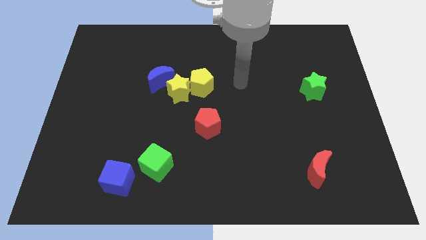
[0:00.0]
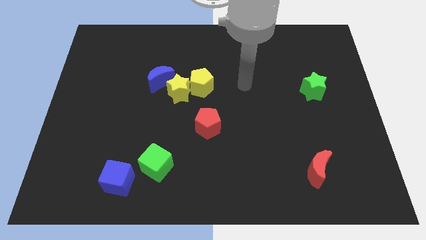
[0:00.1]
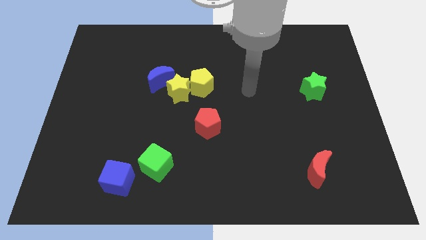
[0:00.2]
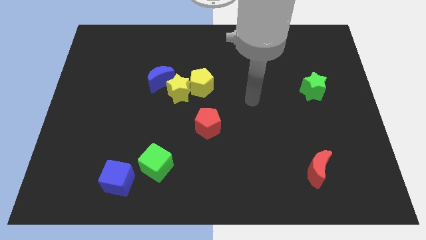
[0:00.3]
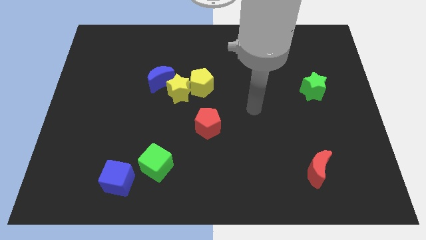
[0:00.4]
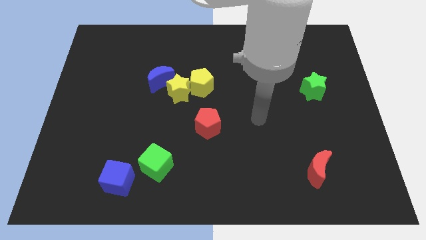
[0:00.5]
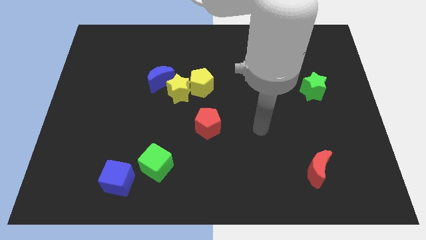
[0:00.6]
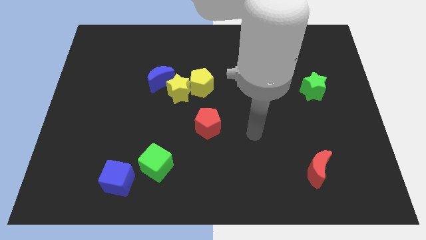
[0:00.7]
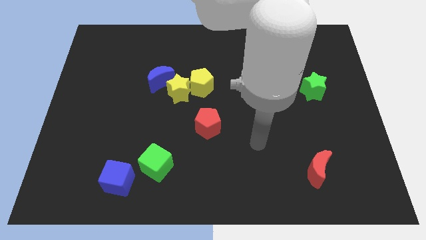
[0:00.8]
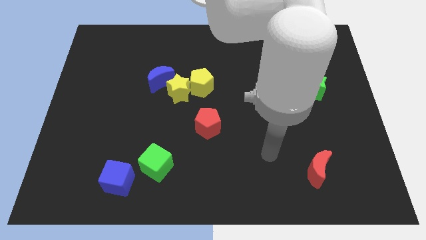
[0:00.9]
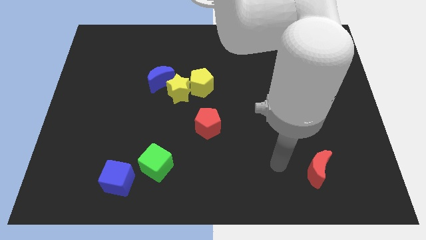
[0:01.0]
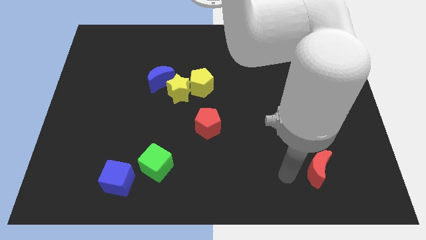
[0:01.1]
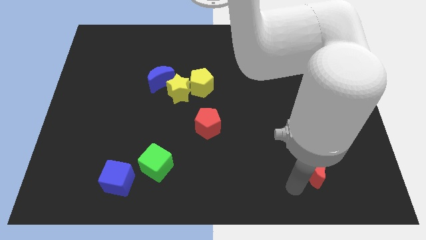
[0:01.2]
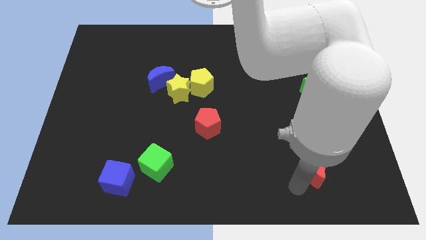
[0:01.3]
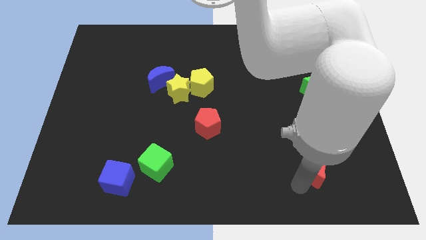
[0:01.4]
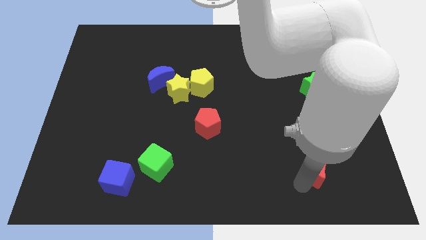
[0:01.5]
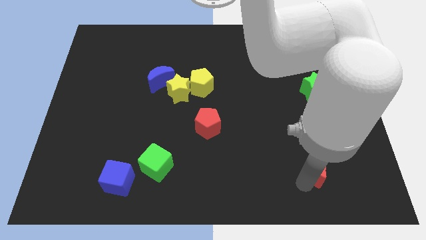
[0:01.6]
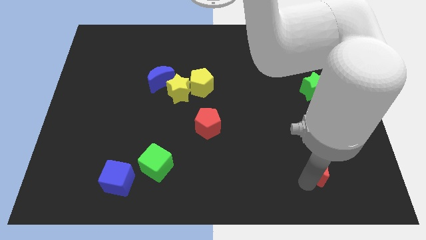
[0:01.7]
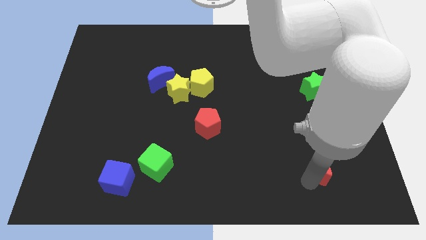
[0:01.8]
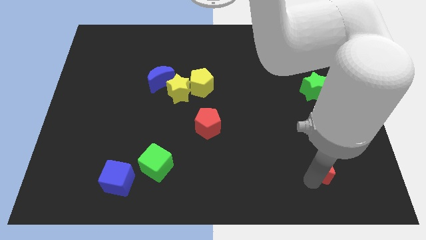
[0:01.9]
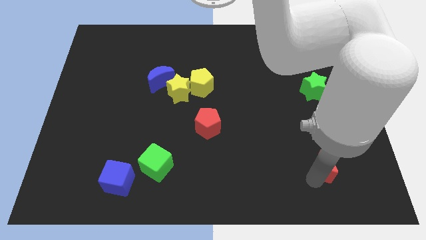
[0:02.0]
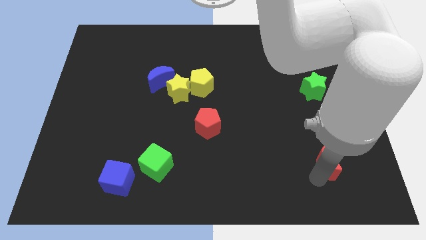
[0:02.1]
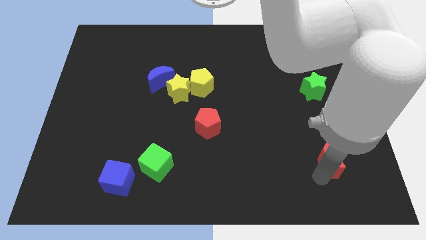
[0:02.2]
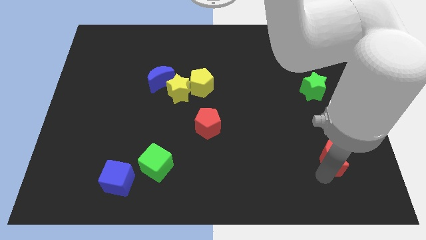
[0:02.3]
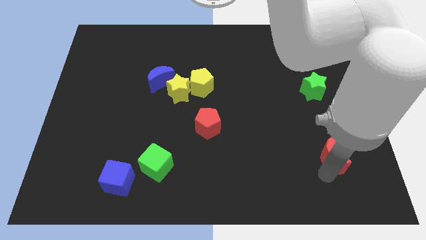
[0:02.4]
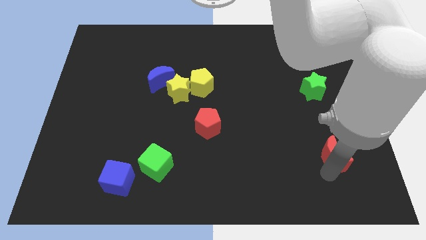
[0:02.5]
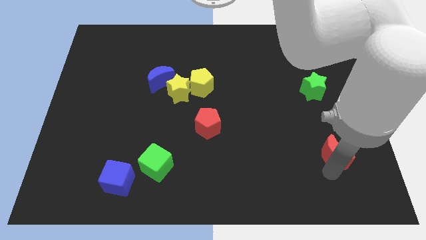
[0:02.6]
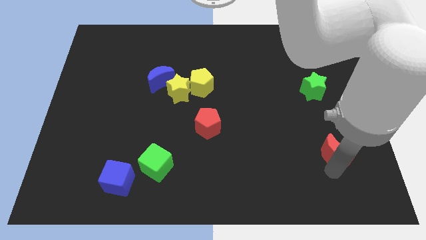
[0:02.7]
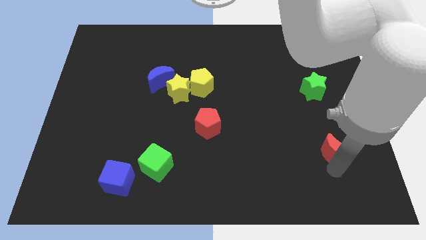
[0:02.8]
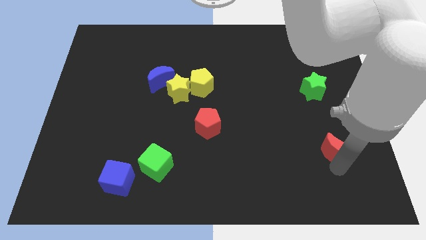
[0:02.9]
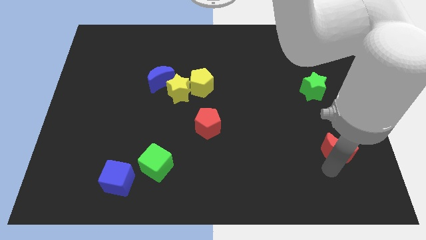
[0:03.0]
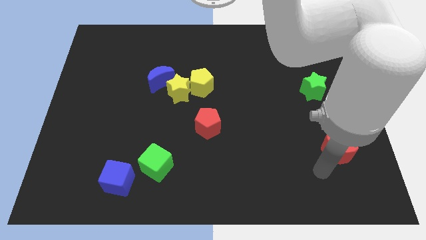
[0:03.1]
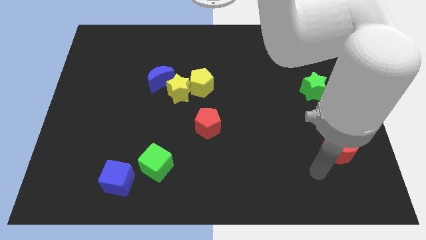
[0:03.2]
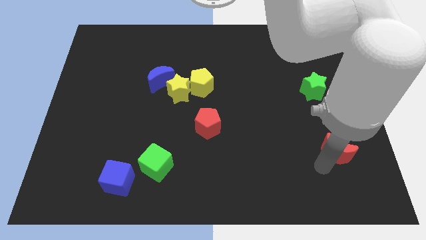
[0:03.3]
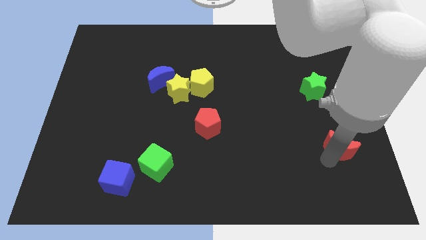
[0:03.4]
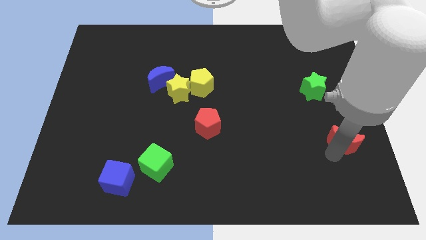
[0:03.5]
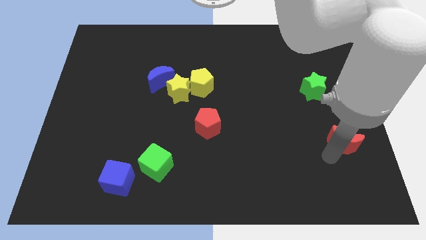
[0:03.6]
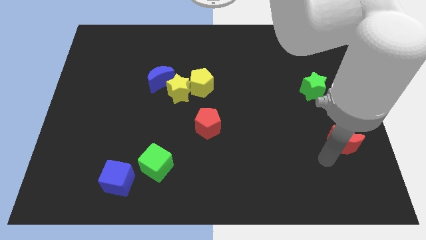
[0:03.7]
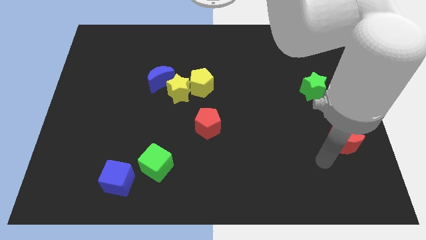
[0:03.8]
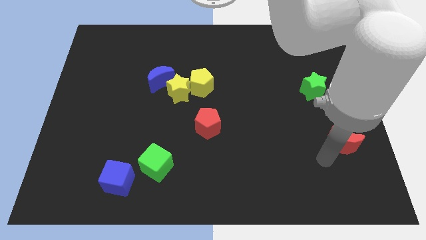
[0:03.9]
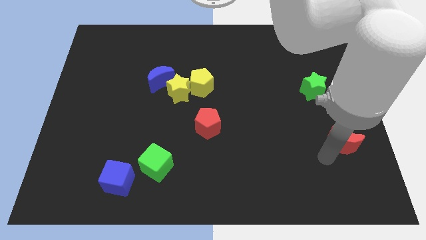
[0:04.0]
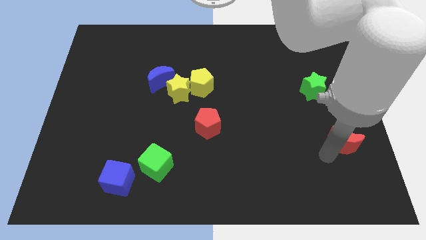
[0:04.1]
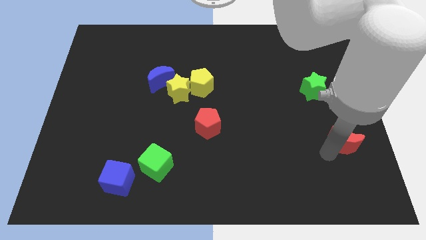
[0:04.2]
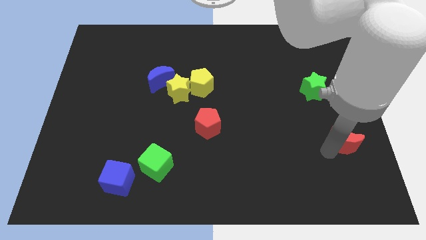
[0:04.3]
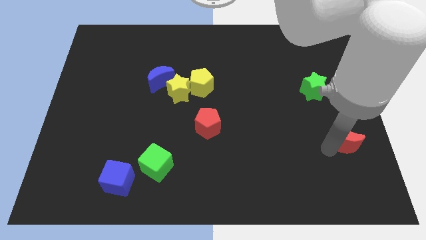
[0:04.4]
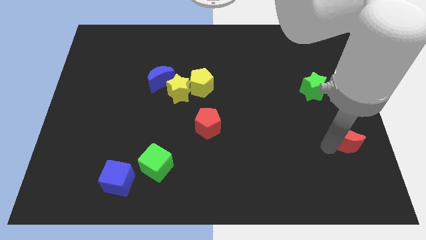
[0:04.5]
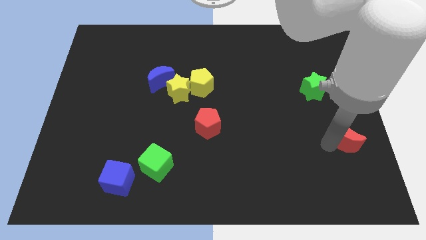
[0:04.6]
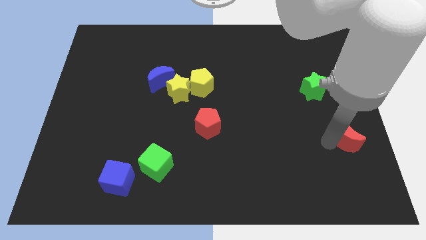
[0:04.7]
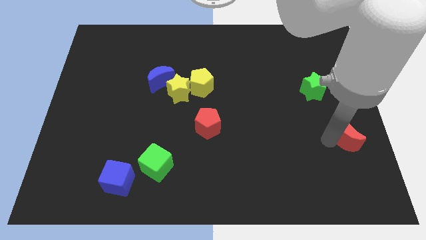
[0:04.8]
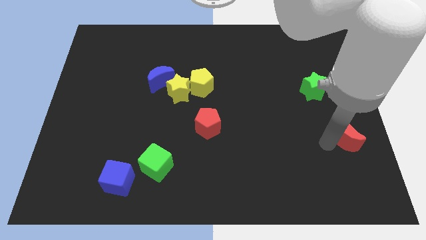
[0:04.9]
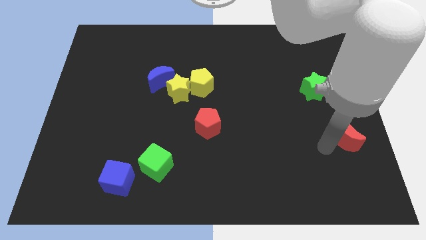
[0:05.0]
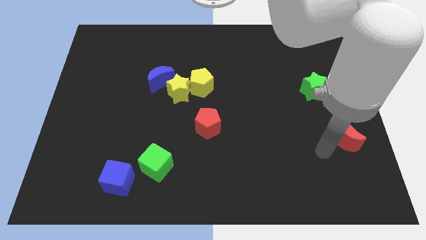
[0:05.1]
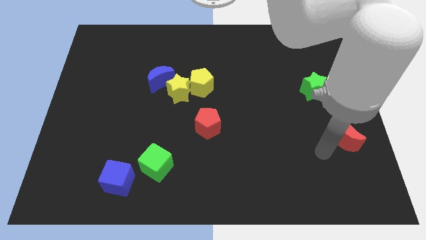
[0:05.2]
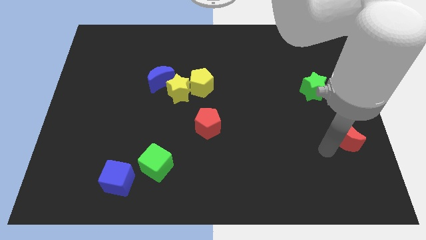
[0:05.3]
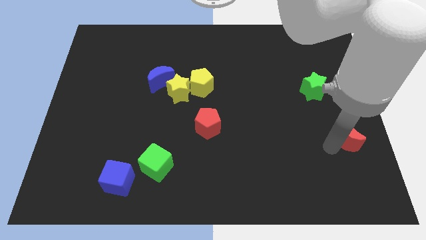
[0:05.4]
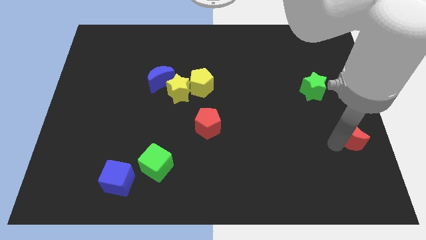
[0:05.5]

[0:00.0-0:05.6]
push the red moon to the right side

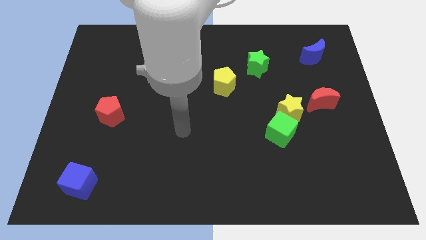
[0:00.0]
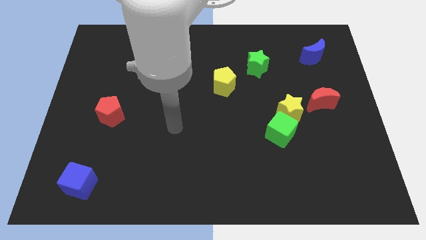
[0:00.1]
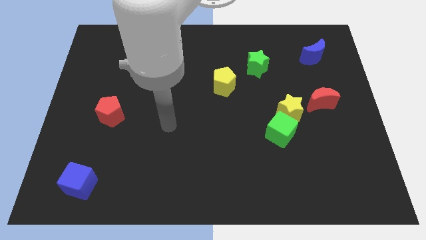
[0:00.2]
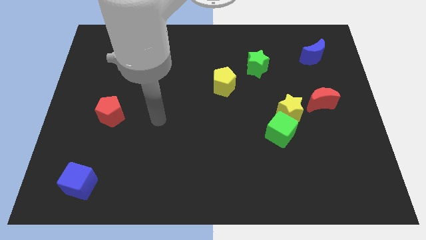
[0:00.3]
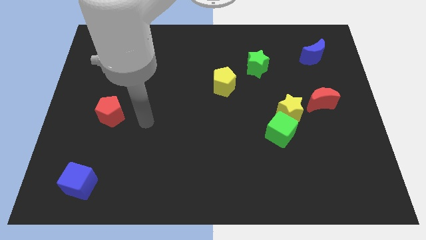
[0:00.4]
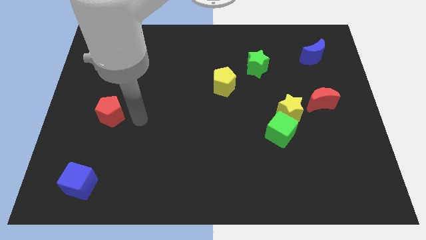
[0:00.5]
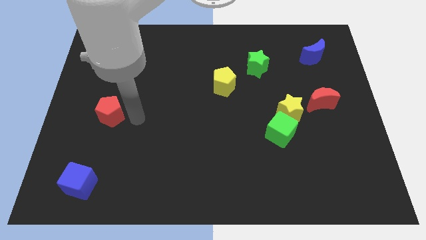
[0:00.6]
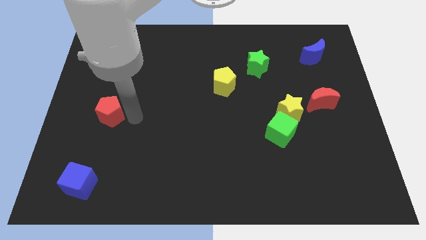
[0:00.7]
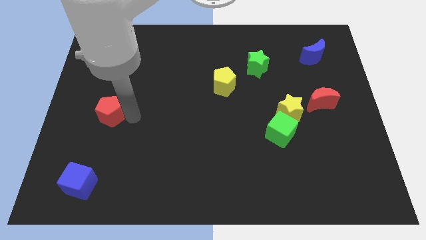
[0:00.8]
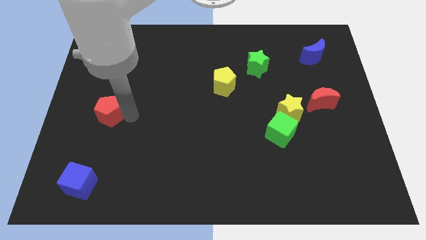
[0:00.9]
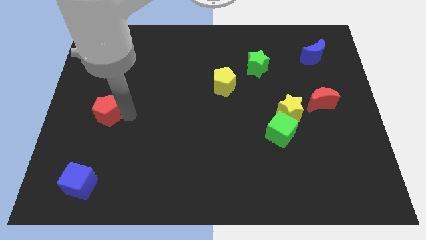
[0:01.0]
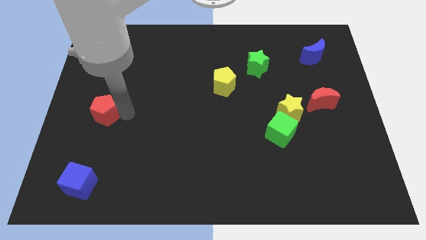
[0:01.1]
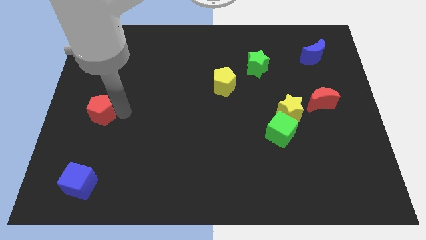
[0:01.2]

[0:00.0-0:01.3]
put the red pentagon to the center left
